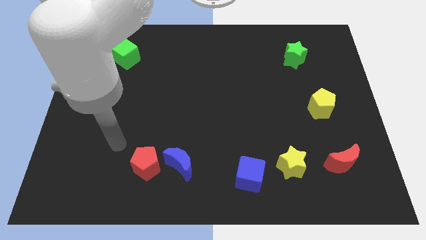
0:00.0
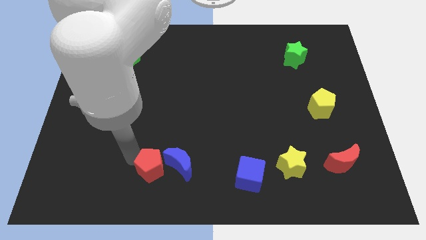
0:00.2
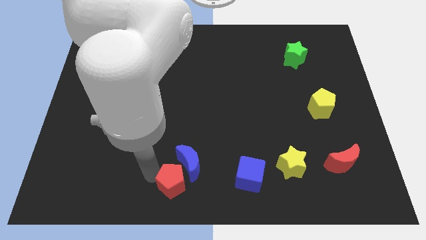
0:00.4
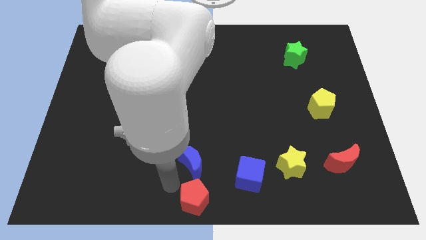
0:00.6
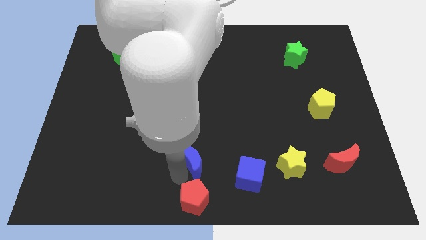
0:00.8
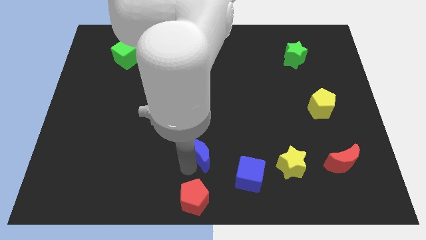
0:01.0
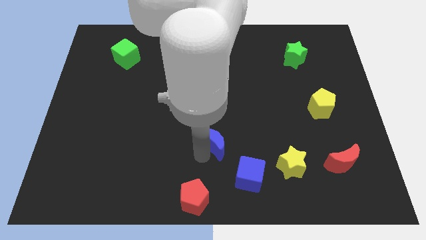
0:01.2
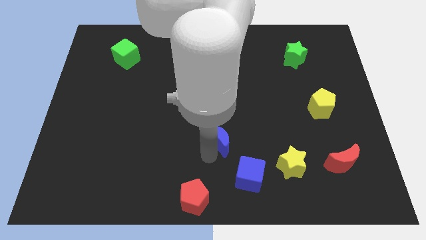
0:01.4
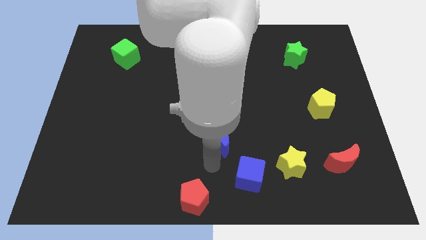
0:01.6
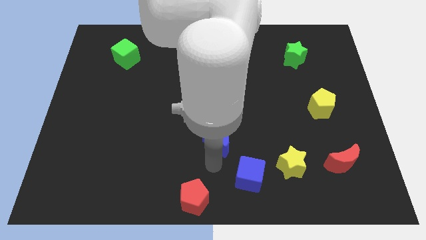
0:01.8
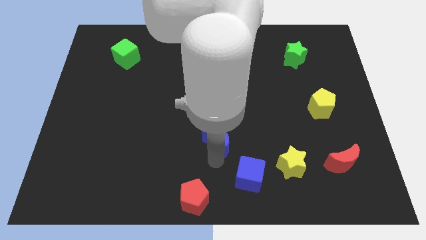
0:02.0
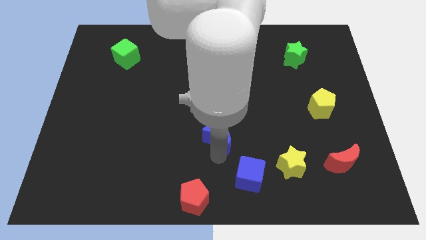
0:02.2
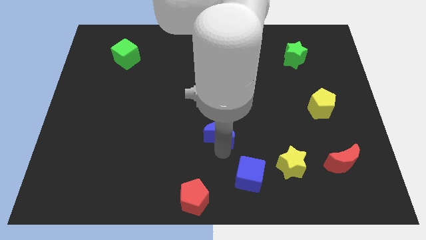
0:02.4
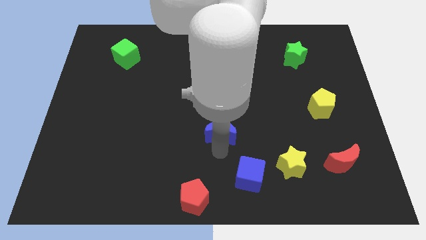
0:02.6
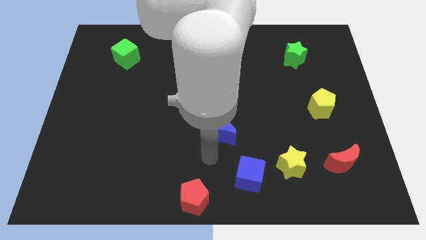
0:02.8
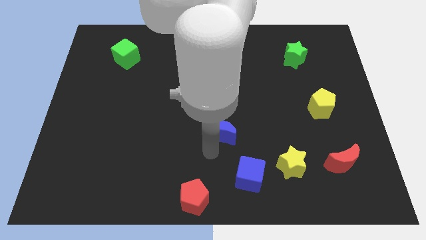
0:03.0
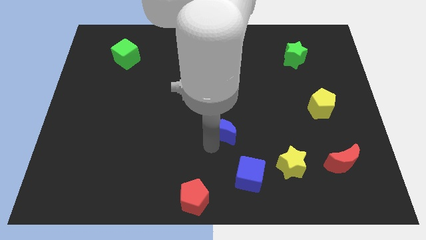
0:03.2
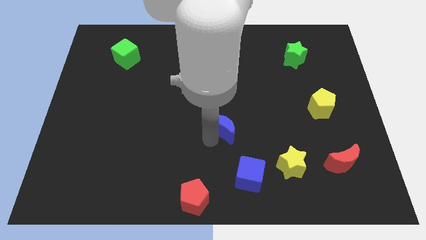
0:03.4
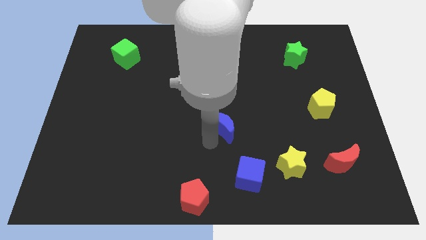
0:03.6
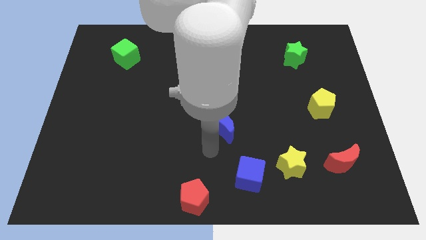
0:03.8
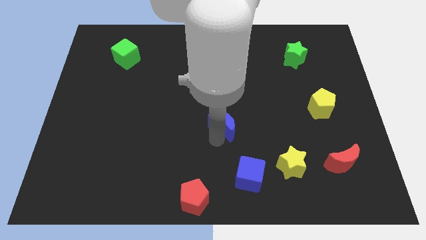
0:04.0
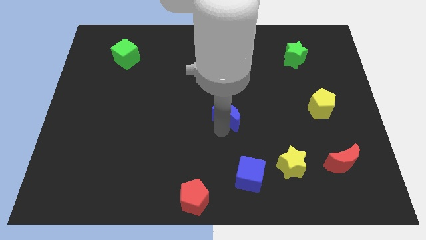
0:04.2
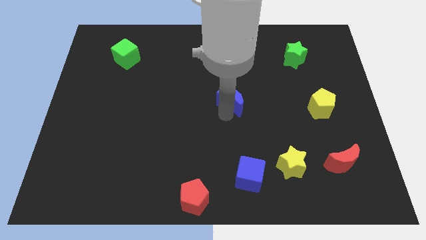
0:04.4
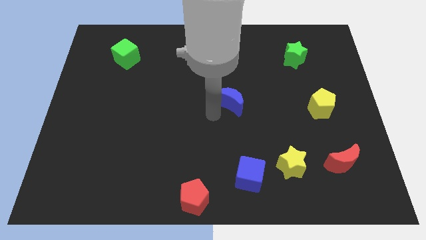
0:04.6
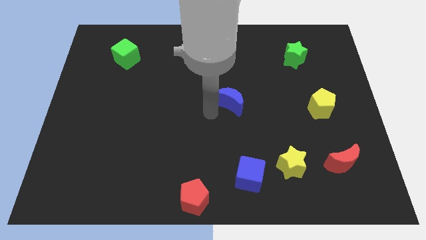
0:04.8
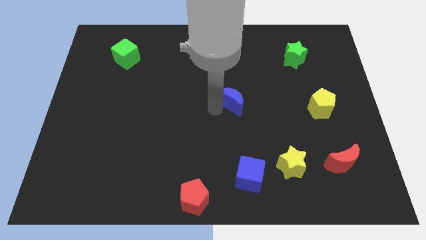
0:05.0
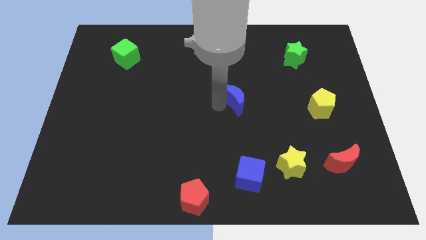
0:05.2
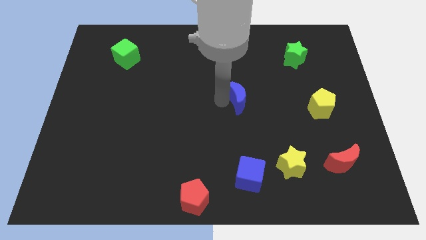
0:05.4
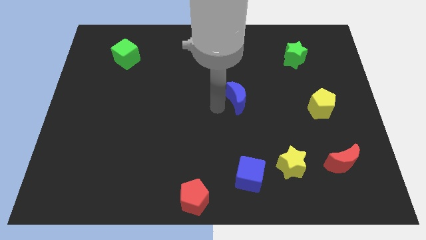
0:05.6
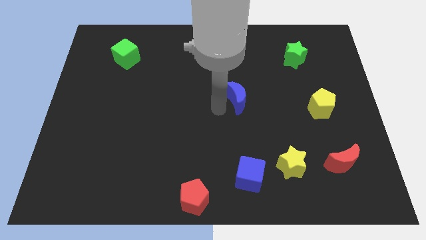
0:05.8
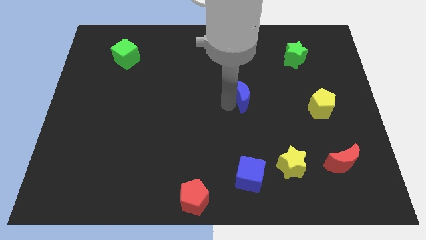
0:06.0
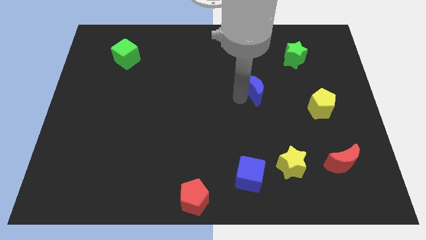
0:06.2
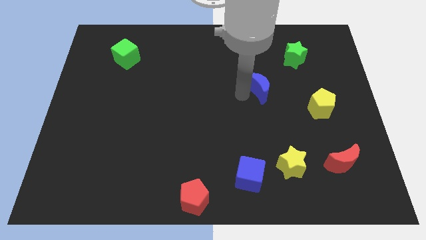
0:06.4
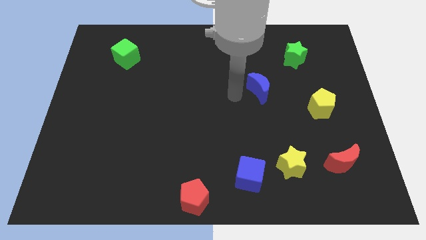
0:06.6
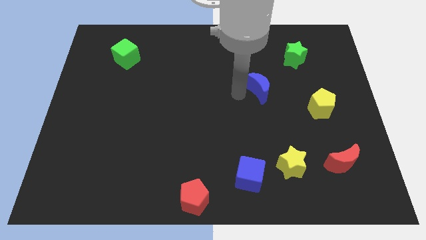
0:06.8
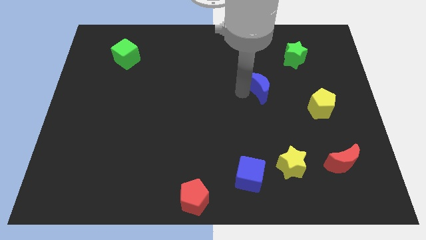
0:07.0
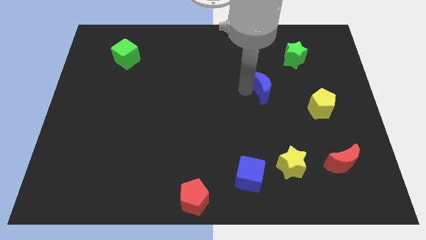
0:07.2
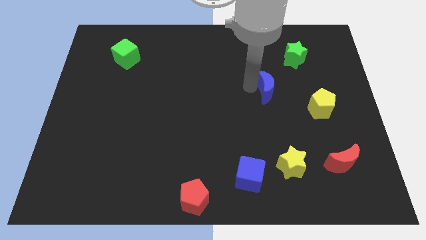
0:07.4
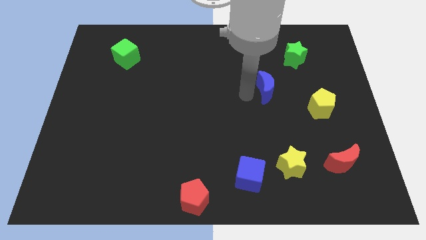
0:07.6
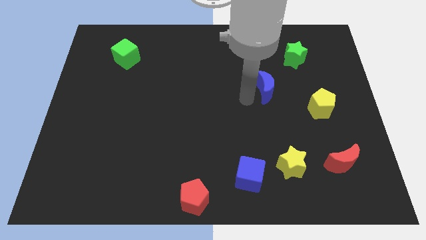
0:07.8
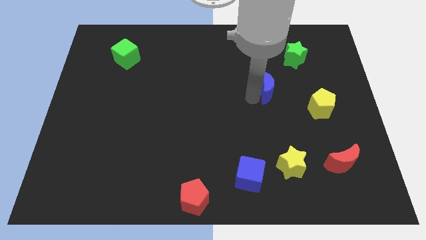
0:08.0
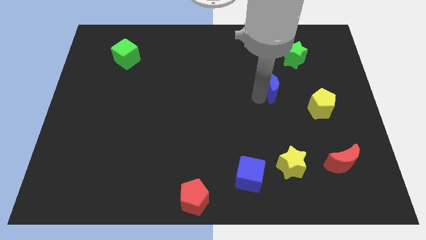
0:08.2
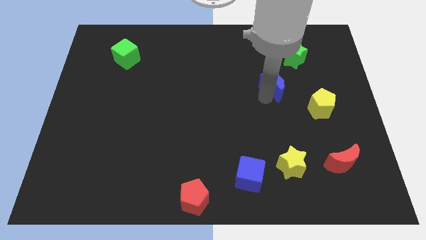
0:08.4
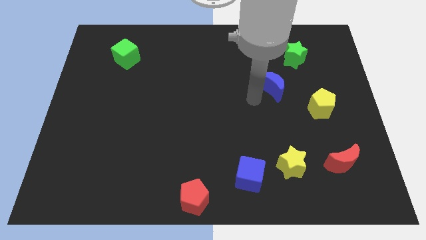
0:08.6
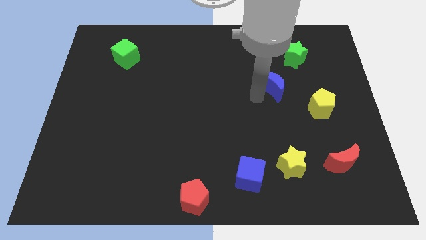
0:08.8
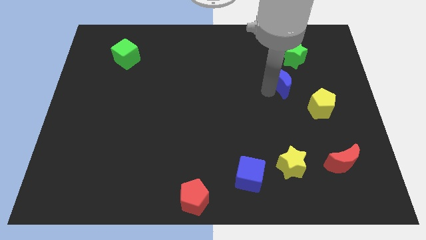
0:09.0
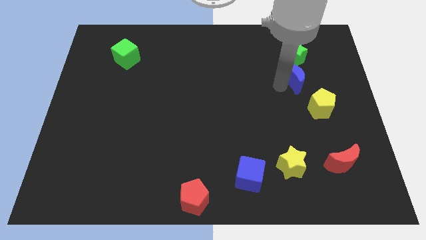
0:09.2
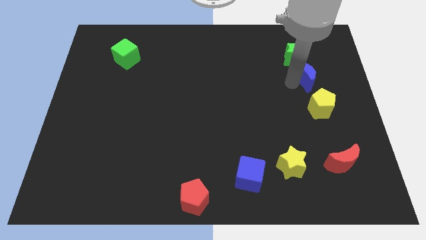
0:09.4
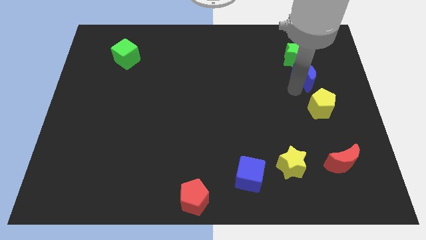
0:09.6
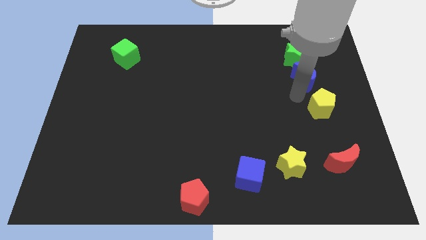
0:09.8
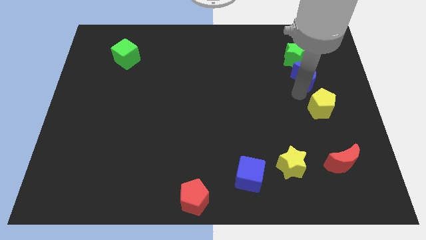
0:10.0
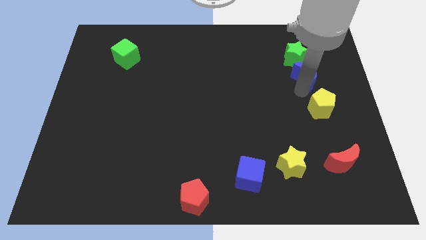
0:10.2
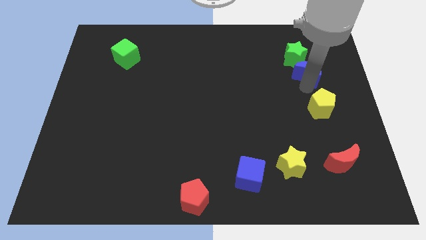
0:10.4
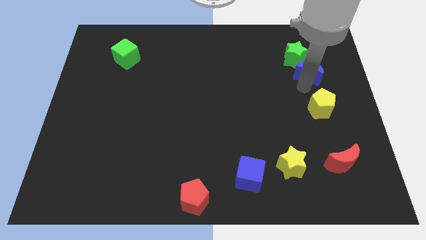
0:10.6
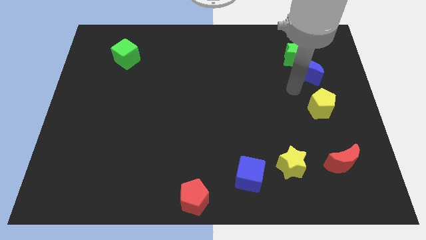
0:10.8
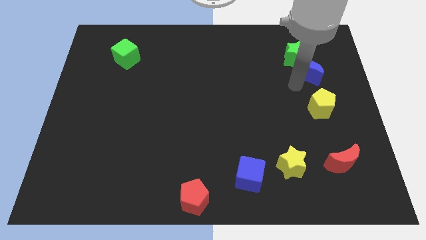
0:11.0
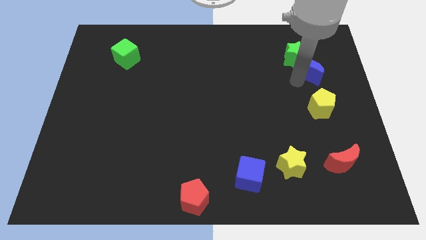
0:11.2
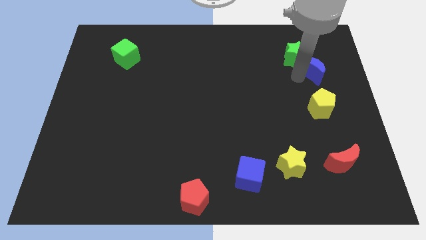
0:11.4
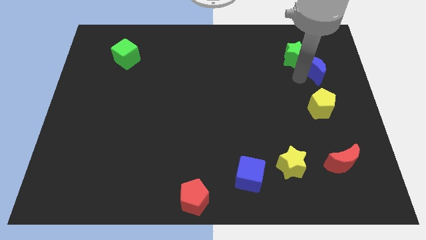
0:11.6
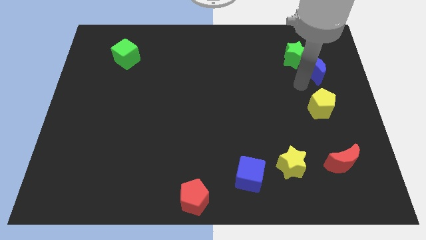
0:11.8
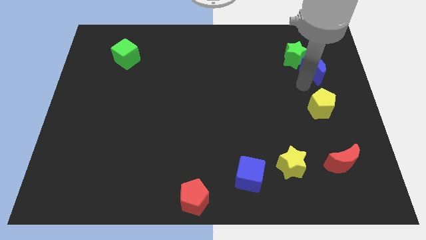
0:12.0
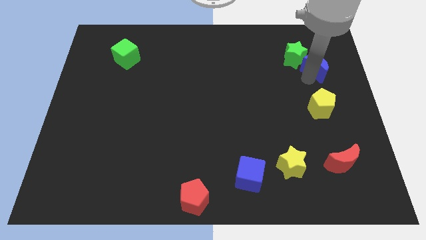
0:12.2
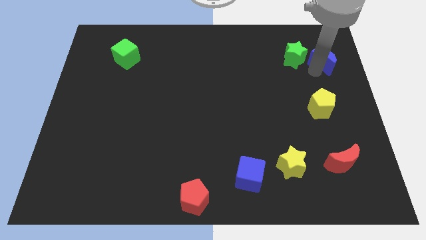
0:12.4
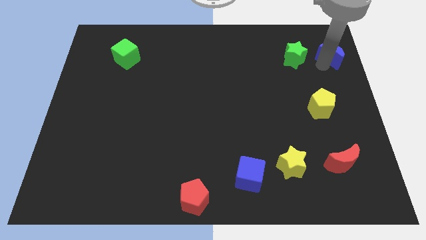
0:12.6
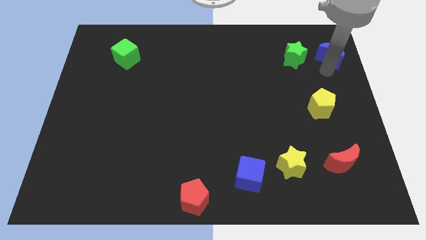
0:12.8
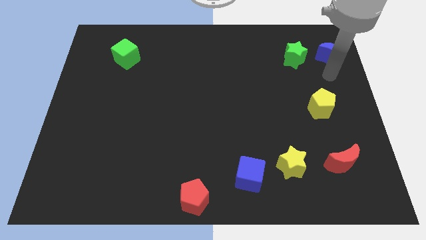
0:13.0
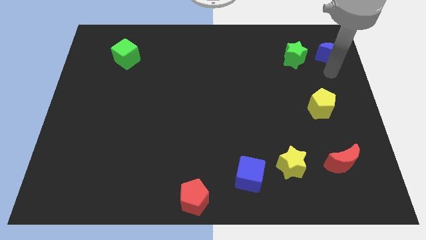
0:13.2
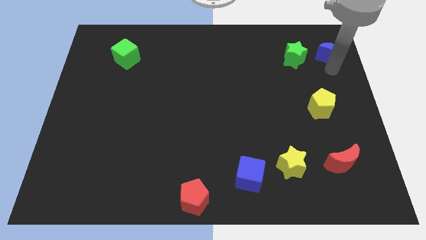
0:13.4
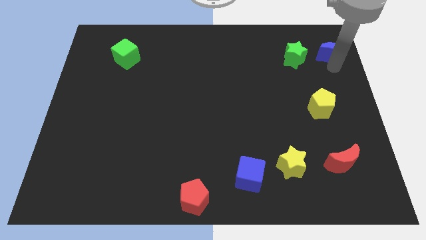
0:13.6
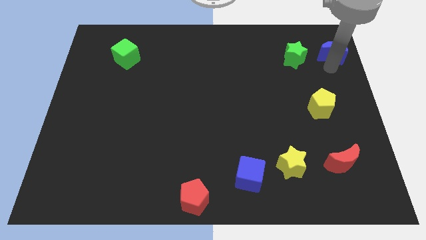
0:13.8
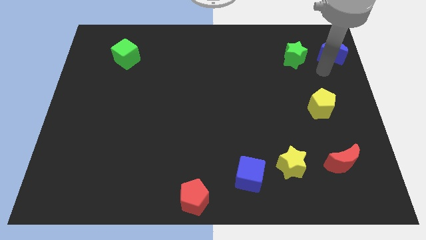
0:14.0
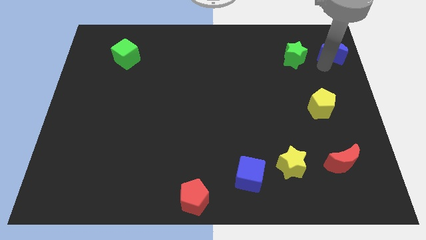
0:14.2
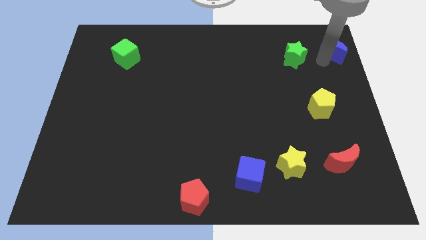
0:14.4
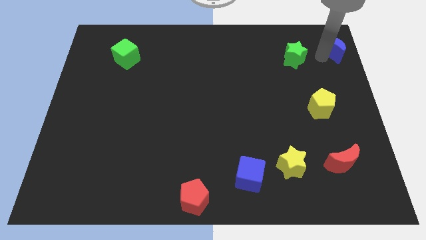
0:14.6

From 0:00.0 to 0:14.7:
move the blue moon to the top right of the board
